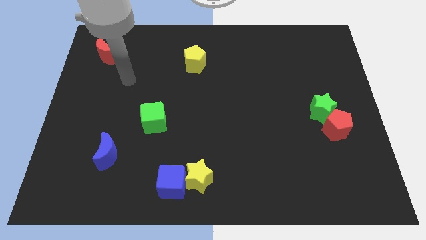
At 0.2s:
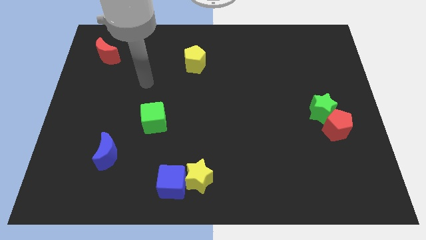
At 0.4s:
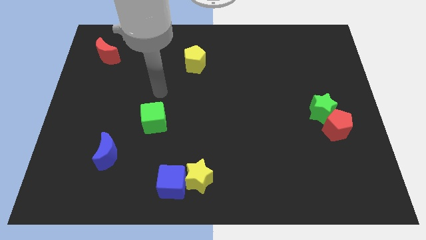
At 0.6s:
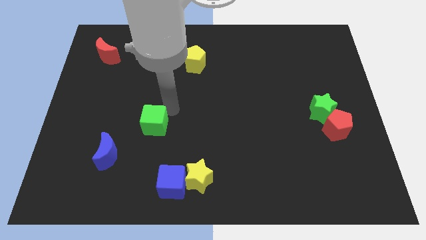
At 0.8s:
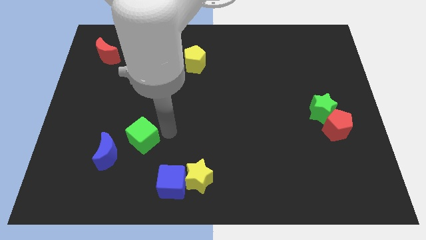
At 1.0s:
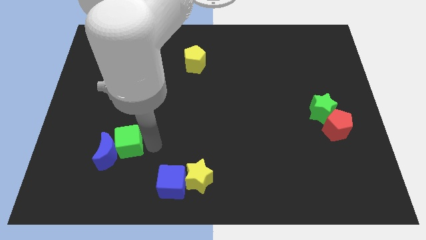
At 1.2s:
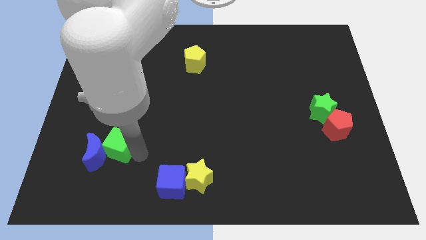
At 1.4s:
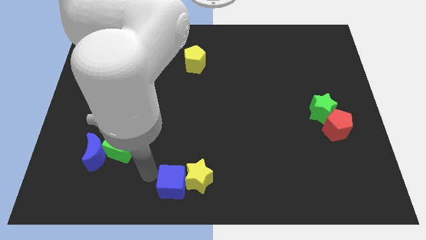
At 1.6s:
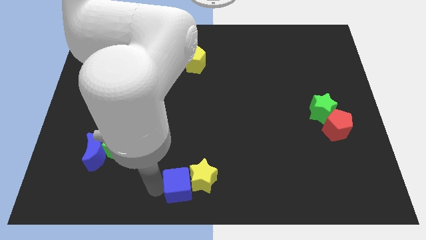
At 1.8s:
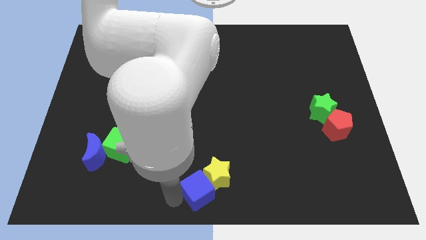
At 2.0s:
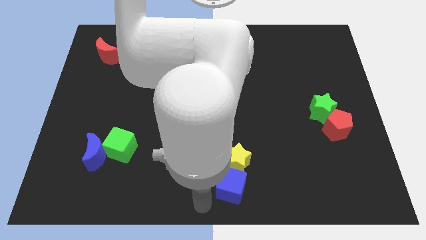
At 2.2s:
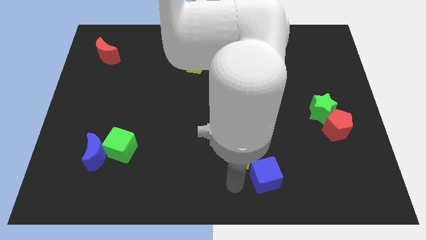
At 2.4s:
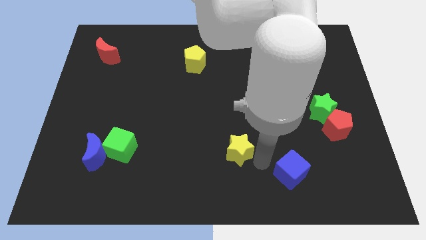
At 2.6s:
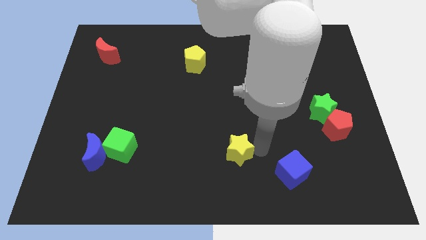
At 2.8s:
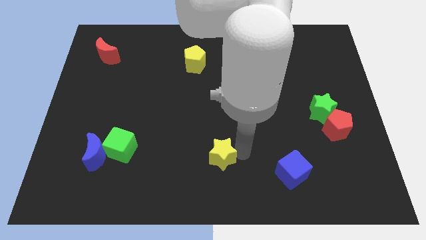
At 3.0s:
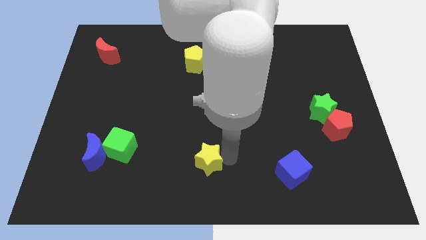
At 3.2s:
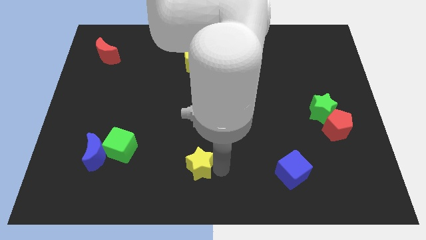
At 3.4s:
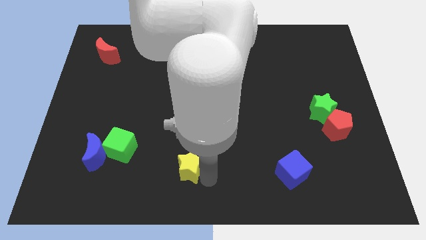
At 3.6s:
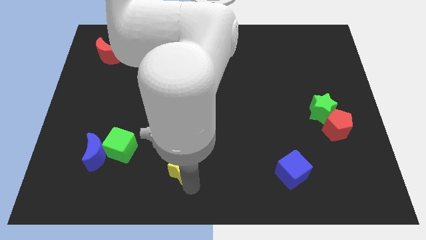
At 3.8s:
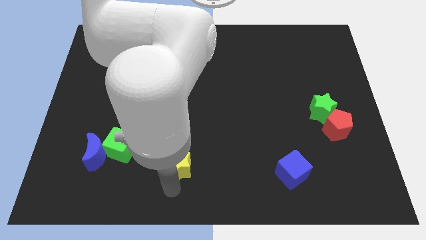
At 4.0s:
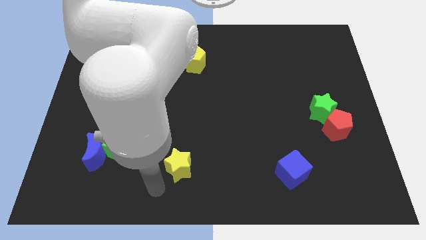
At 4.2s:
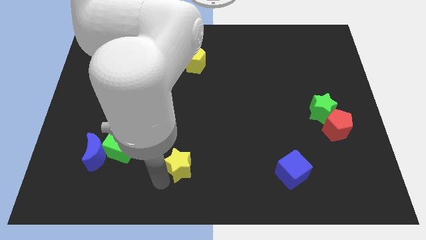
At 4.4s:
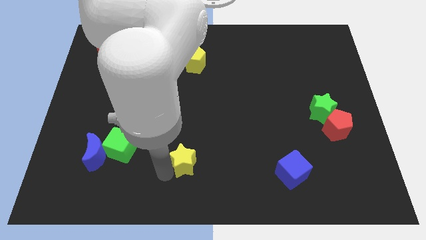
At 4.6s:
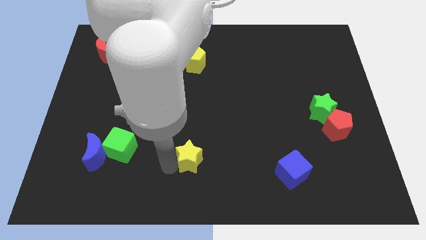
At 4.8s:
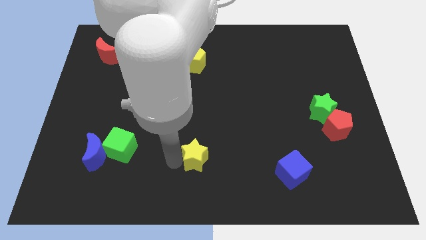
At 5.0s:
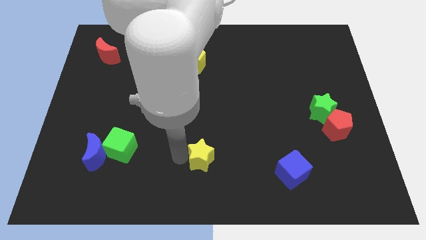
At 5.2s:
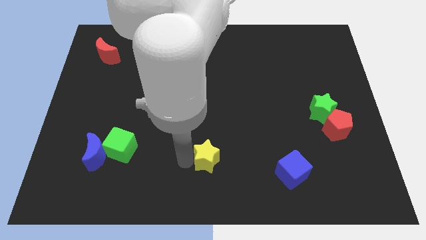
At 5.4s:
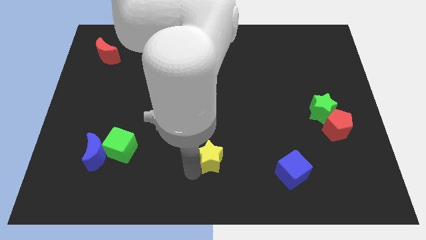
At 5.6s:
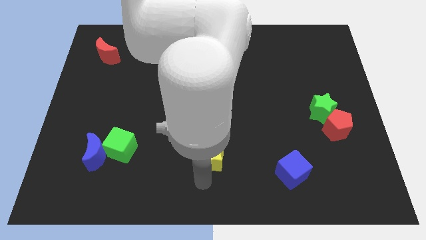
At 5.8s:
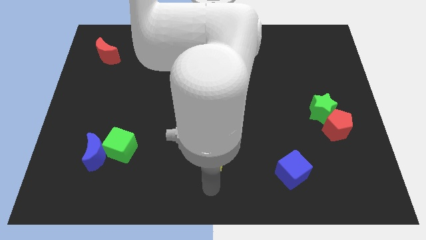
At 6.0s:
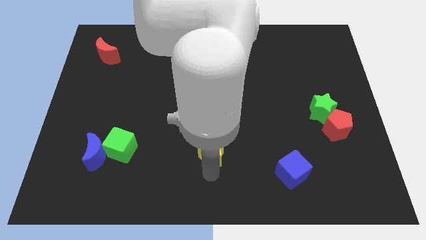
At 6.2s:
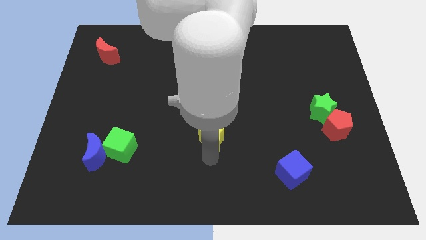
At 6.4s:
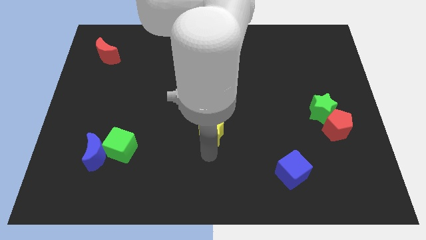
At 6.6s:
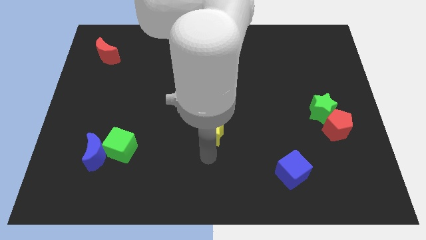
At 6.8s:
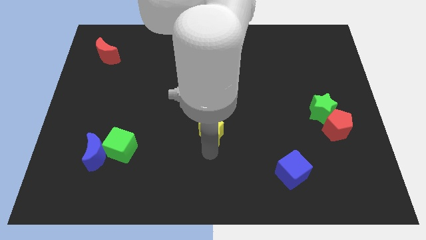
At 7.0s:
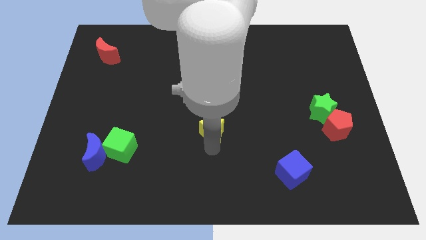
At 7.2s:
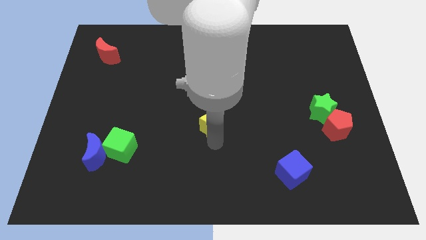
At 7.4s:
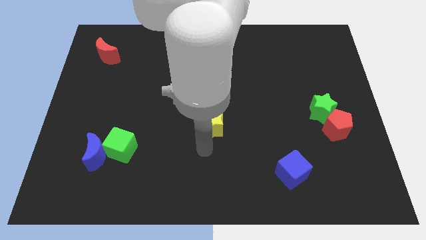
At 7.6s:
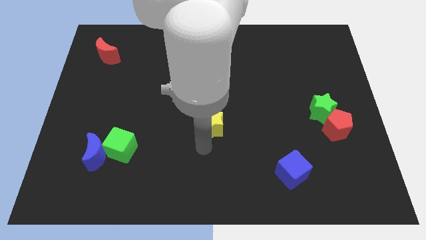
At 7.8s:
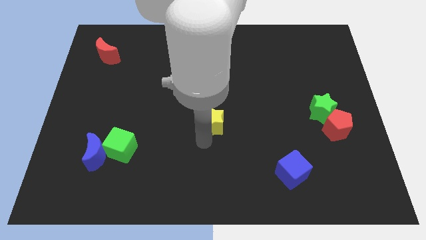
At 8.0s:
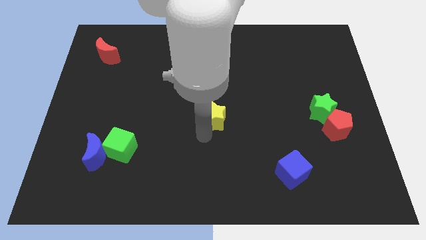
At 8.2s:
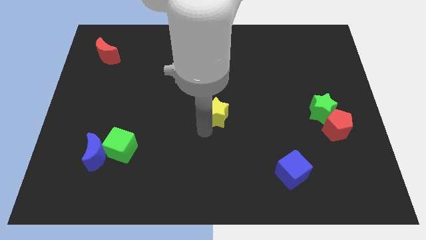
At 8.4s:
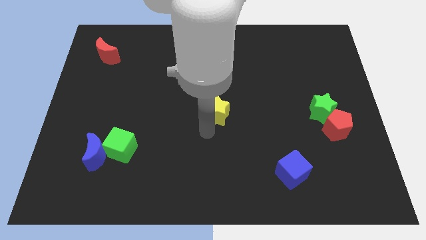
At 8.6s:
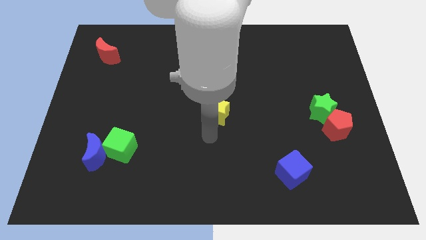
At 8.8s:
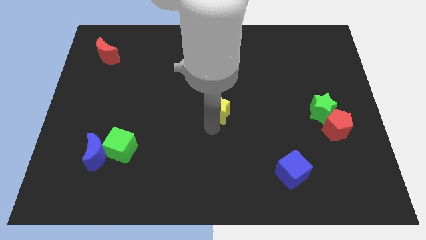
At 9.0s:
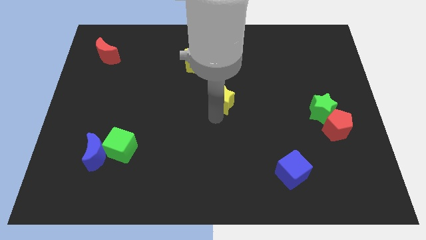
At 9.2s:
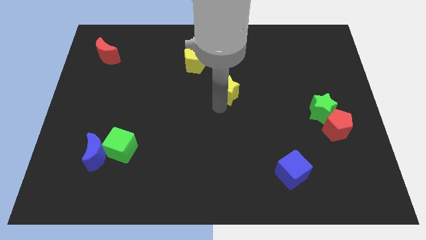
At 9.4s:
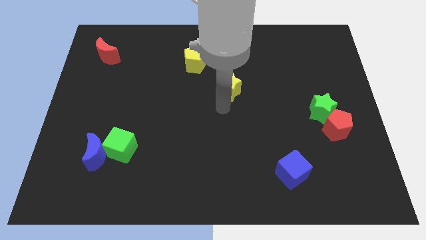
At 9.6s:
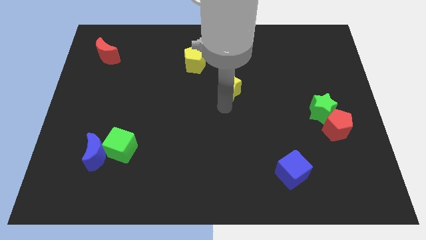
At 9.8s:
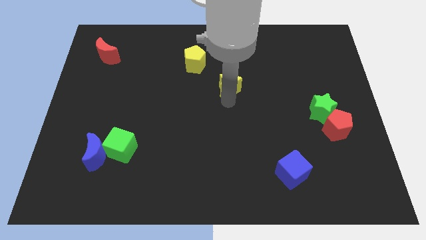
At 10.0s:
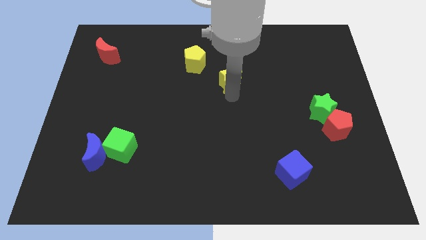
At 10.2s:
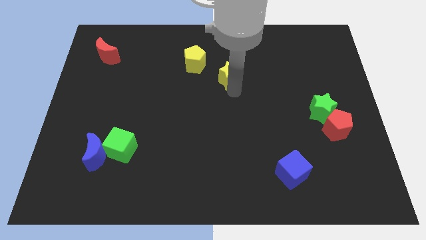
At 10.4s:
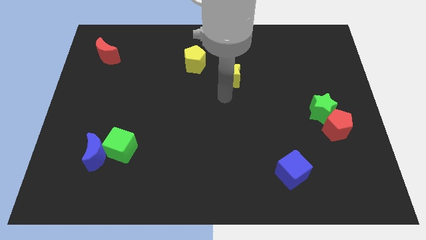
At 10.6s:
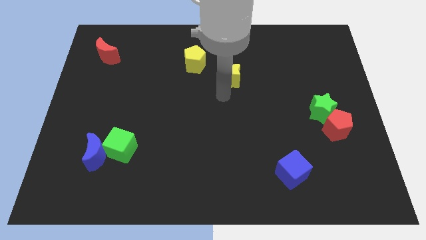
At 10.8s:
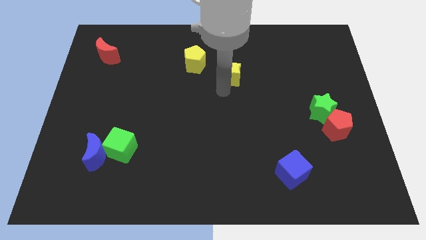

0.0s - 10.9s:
move the yellow star right of the yellow pentagon

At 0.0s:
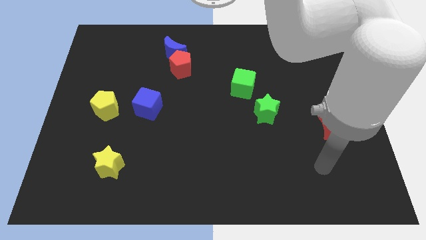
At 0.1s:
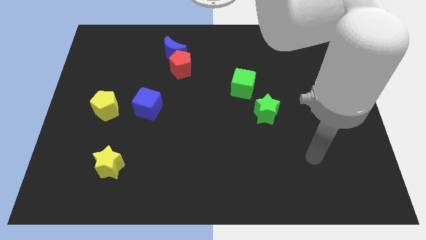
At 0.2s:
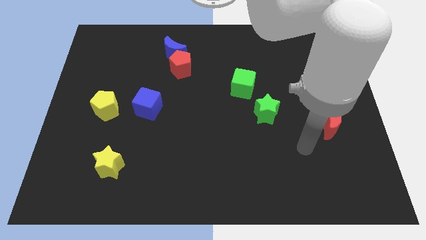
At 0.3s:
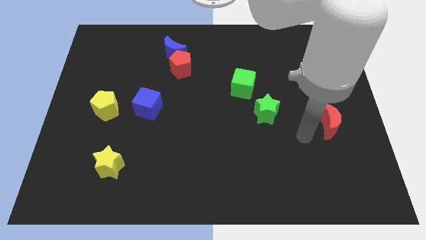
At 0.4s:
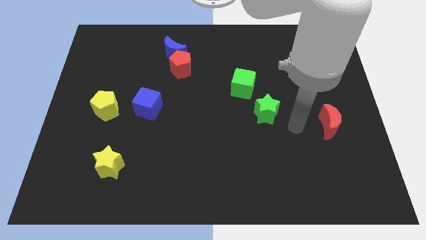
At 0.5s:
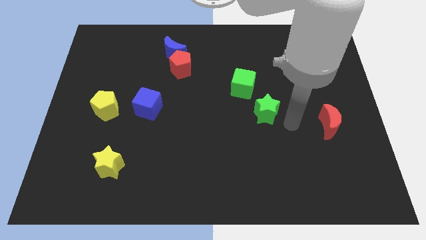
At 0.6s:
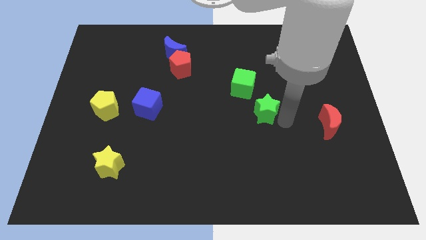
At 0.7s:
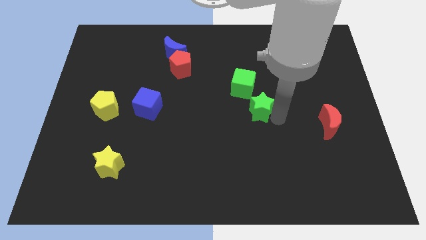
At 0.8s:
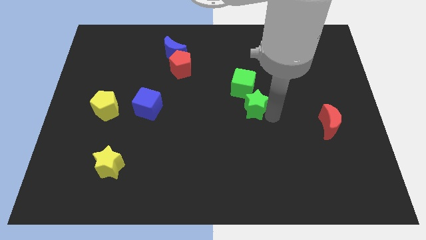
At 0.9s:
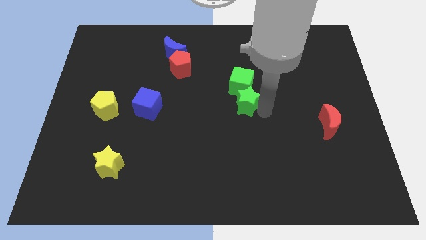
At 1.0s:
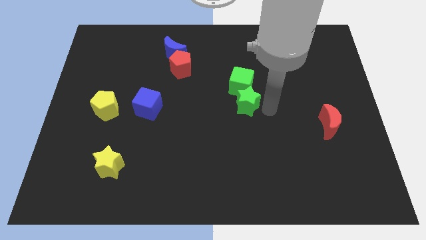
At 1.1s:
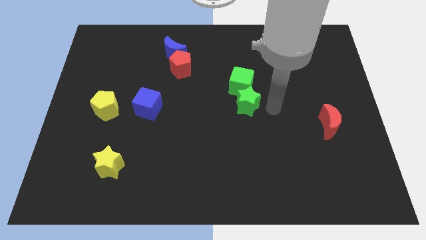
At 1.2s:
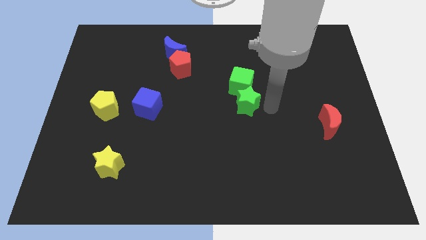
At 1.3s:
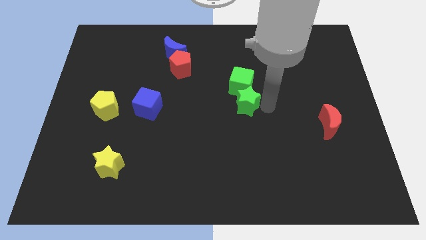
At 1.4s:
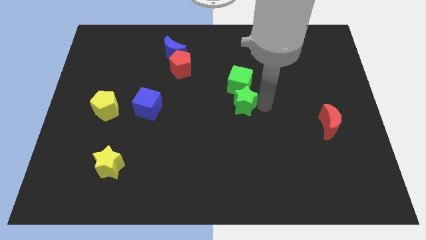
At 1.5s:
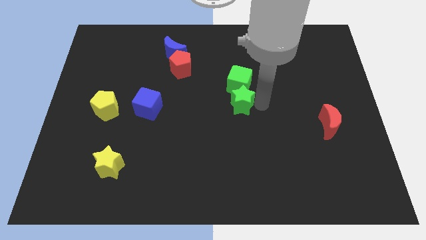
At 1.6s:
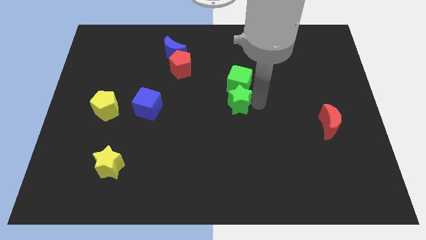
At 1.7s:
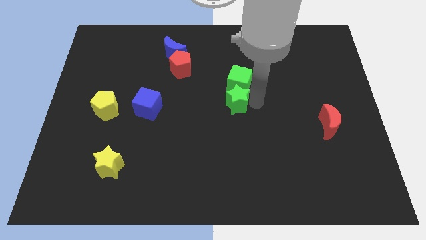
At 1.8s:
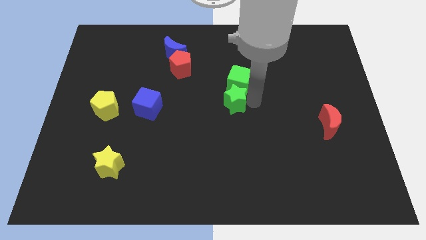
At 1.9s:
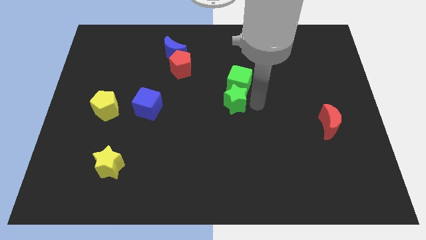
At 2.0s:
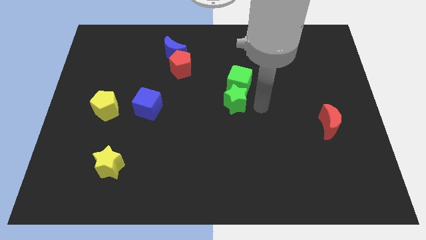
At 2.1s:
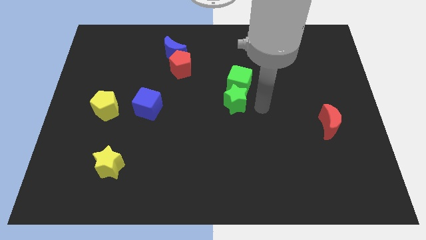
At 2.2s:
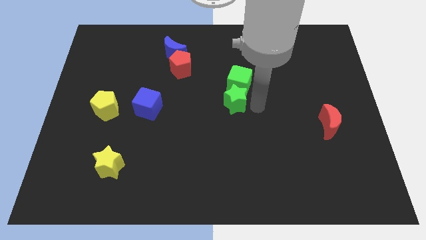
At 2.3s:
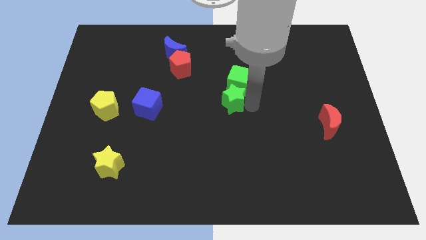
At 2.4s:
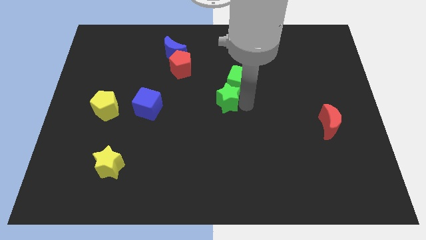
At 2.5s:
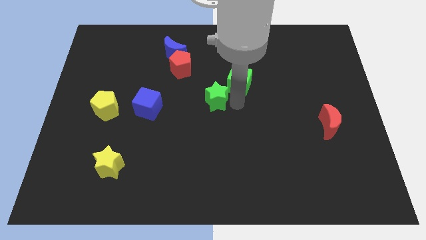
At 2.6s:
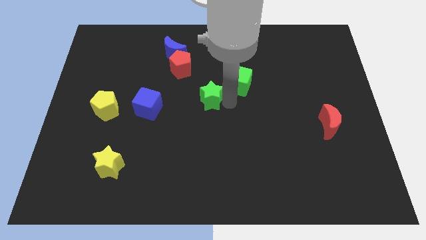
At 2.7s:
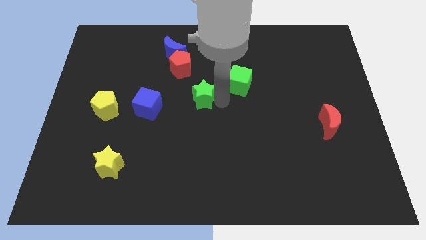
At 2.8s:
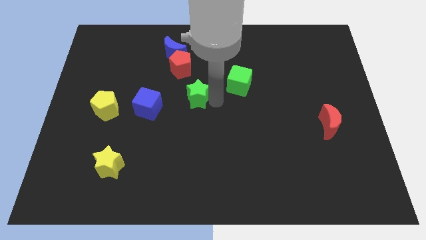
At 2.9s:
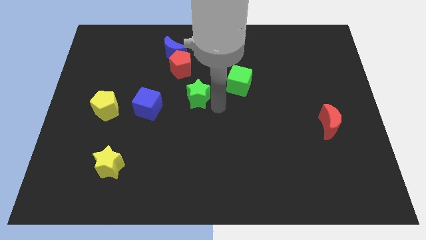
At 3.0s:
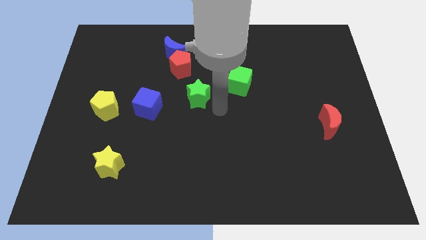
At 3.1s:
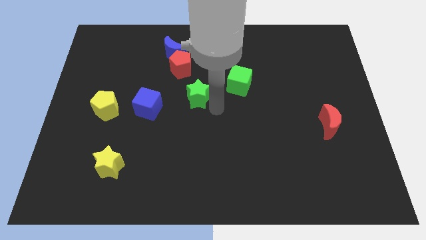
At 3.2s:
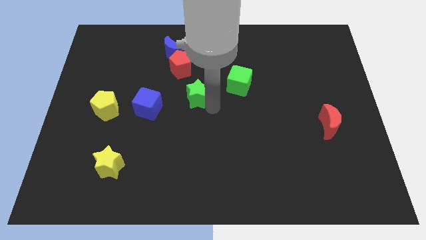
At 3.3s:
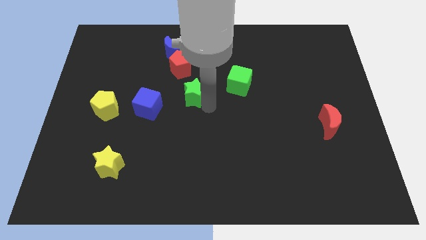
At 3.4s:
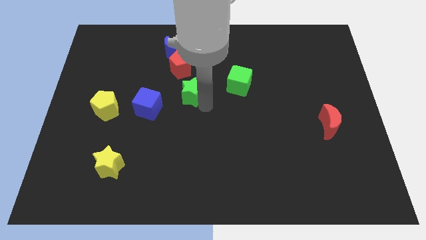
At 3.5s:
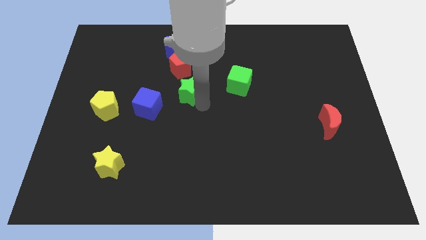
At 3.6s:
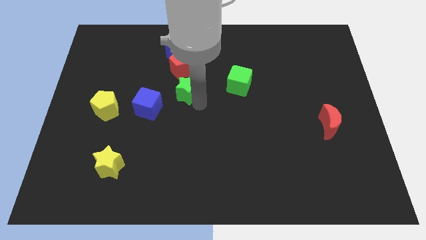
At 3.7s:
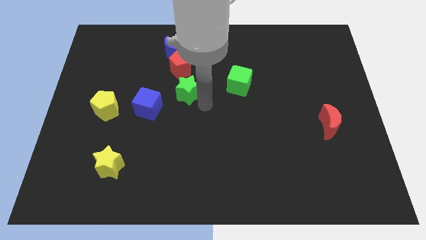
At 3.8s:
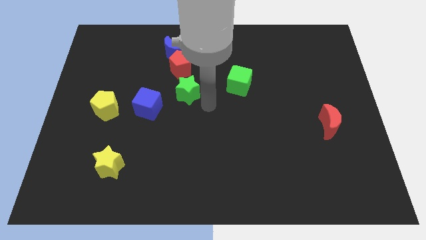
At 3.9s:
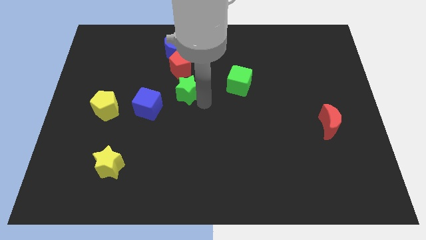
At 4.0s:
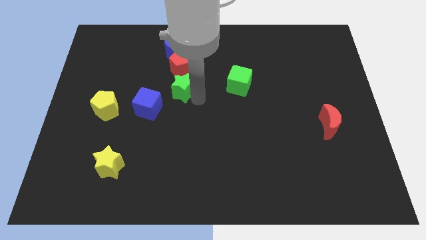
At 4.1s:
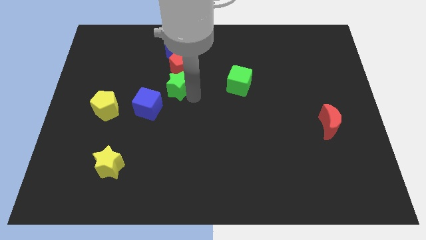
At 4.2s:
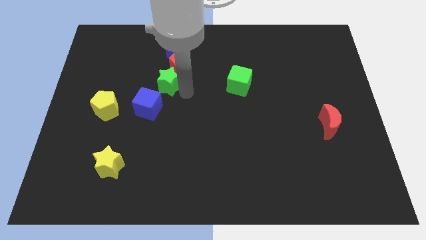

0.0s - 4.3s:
push the green star to the top of the blue cube
